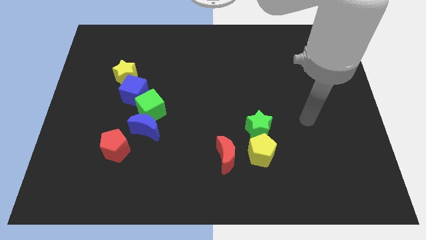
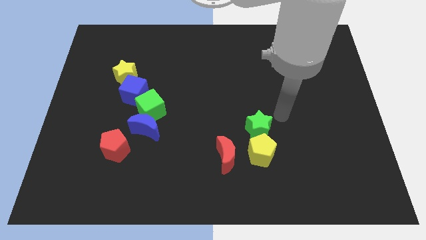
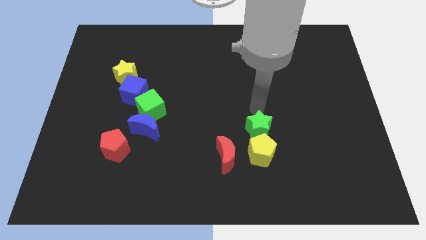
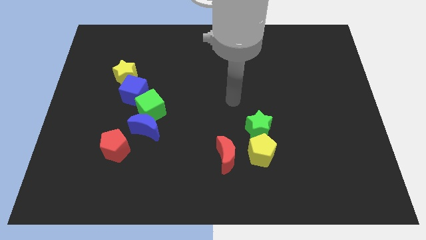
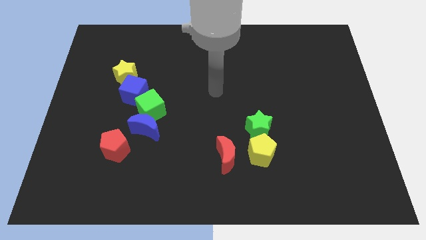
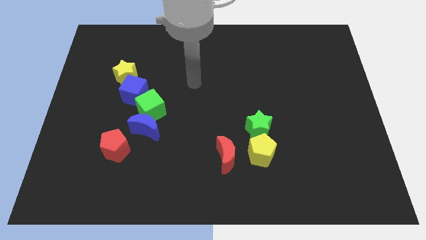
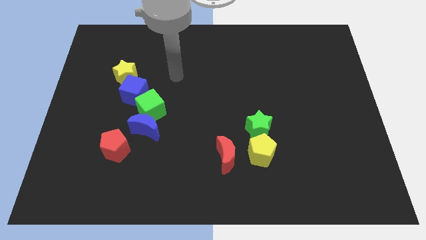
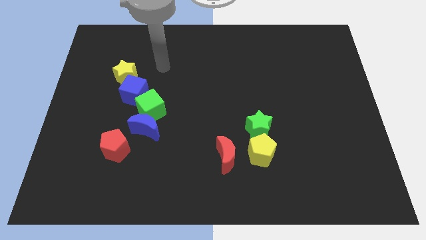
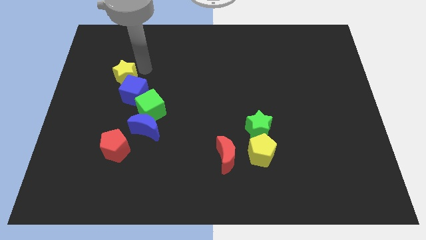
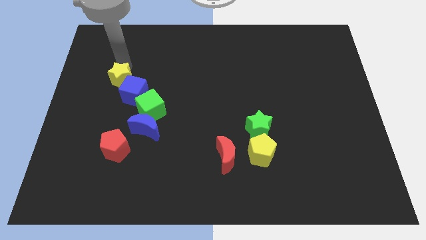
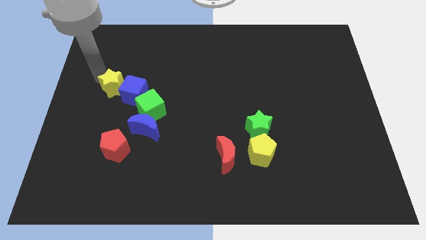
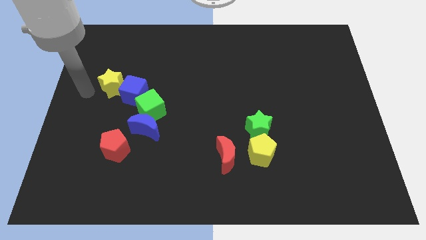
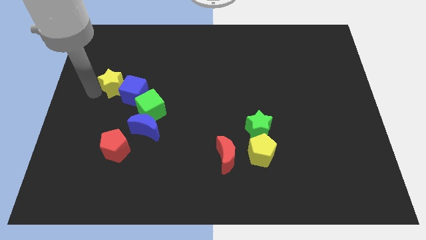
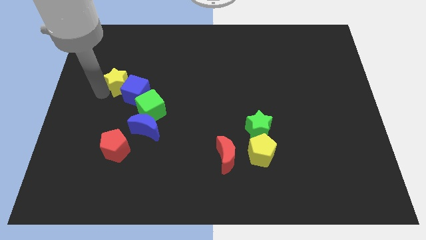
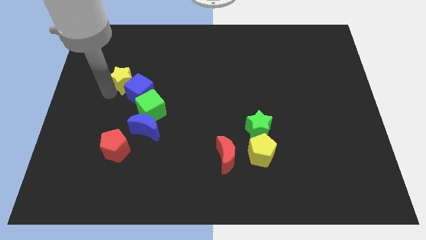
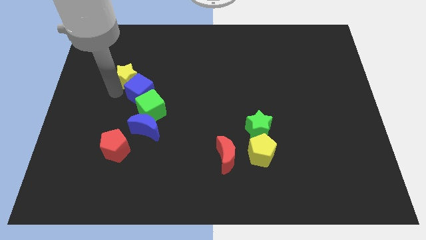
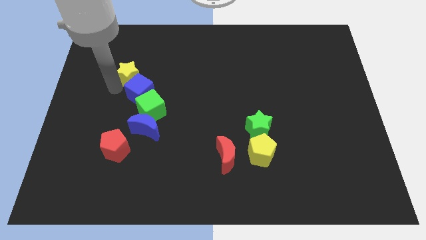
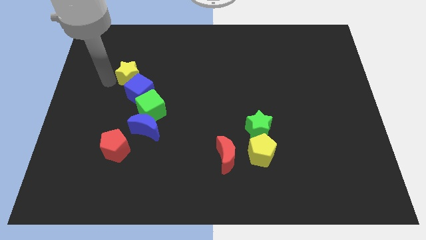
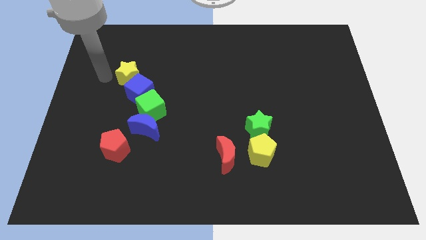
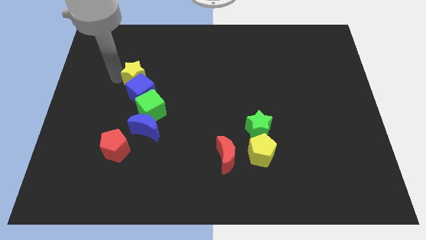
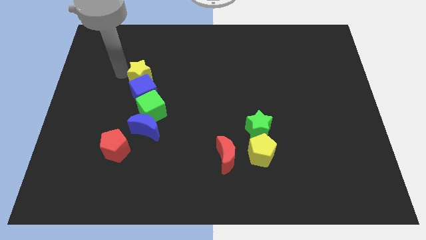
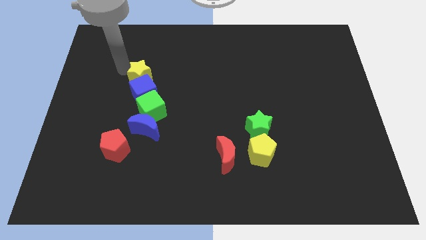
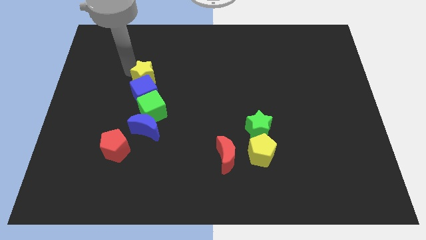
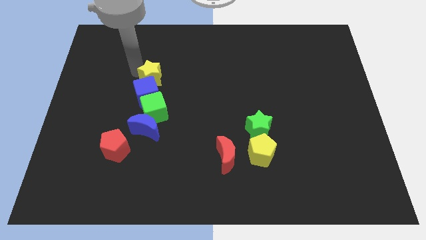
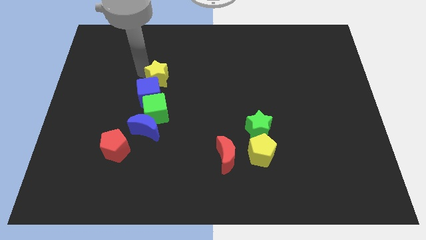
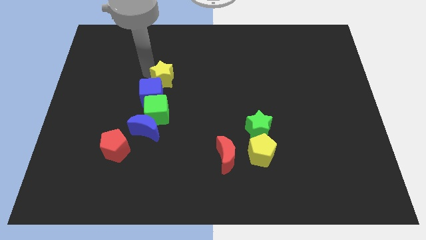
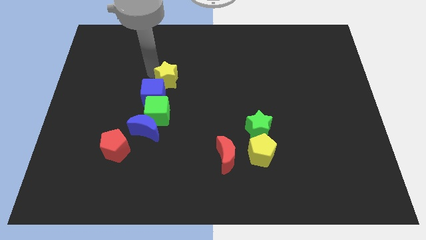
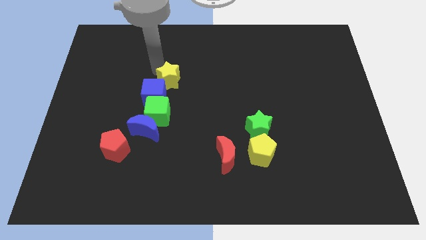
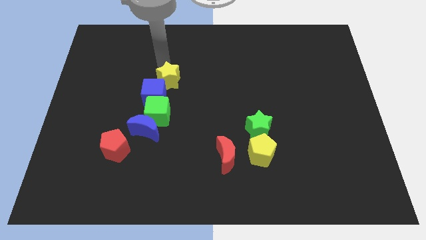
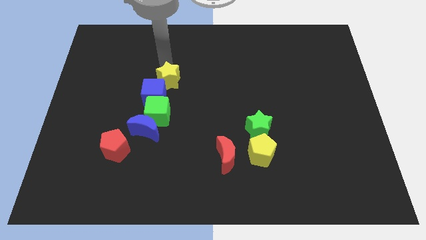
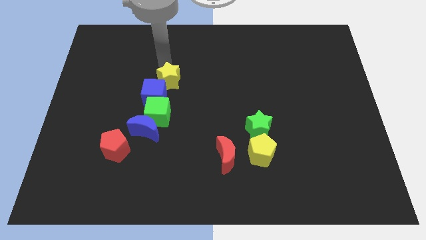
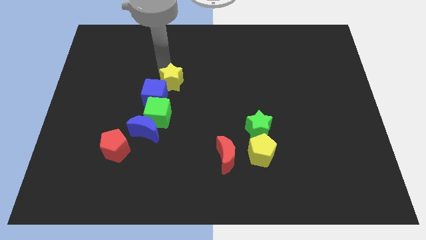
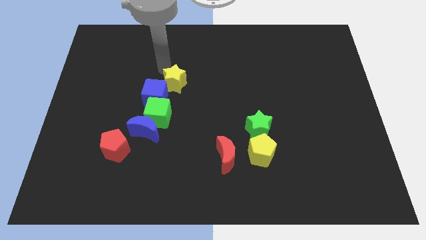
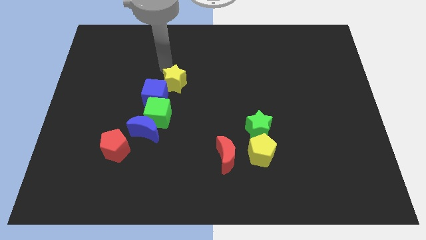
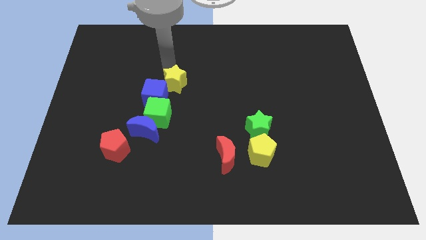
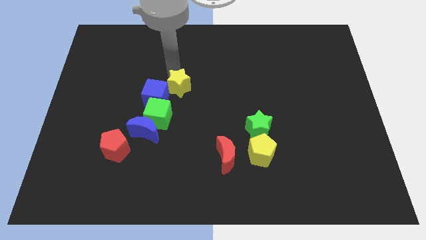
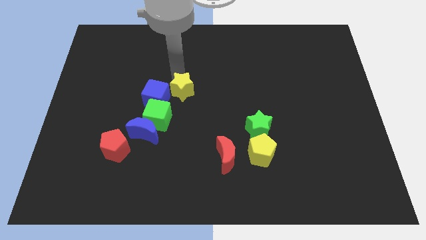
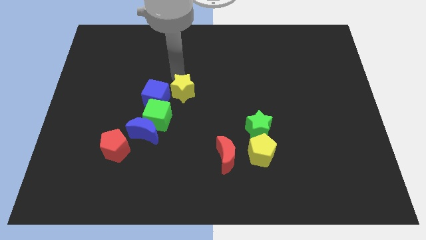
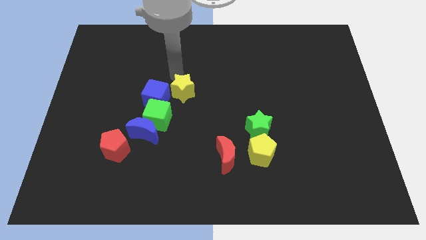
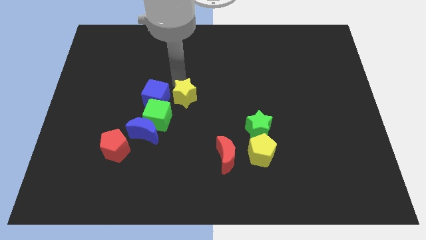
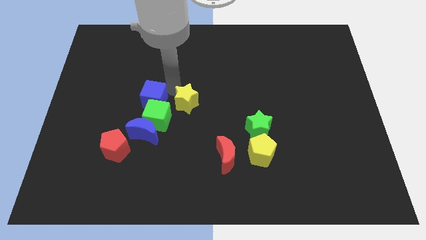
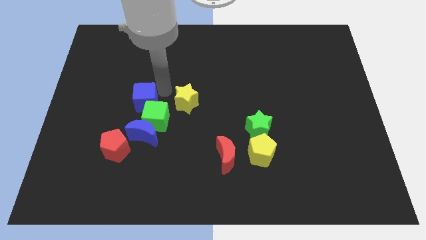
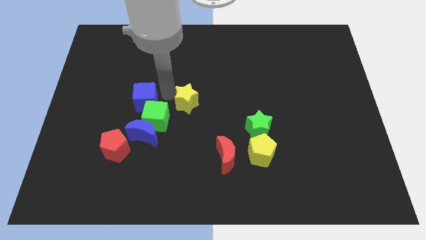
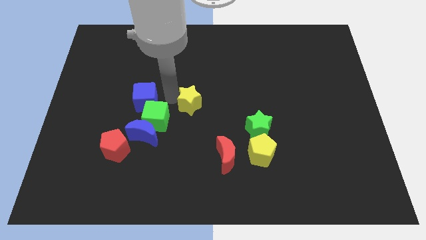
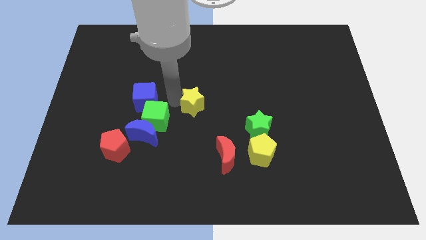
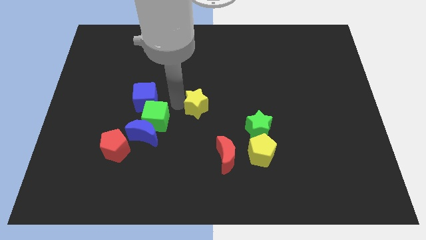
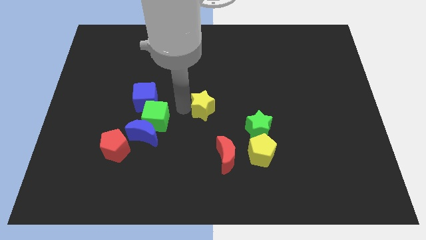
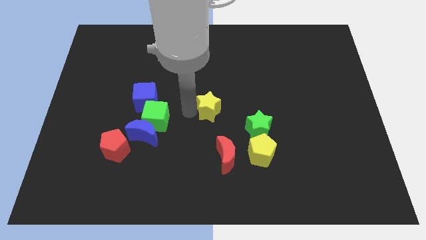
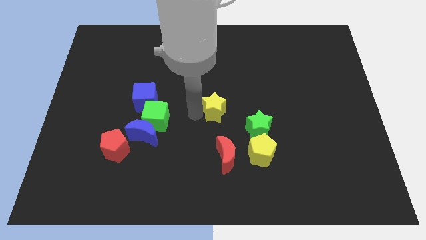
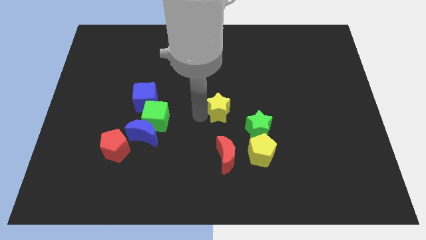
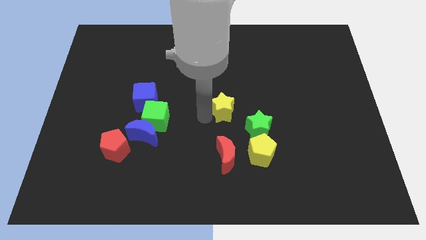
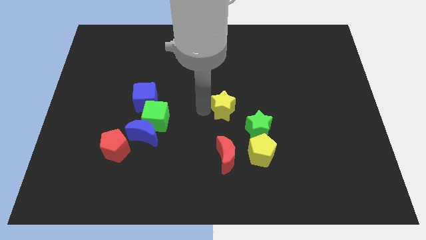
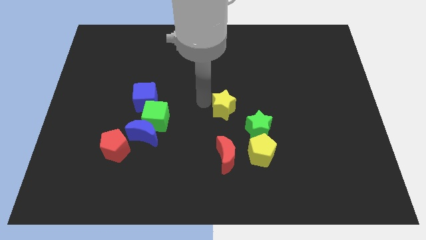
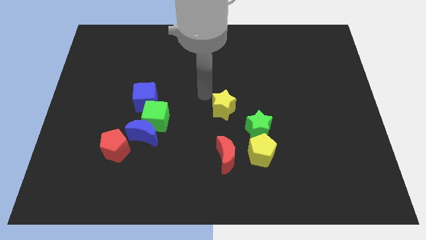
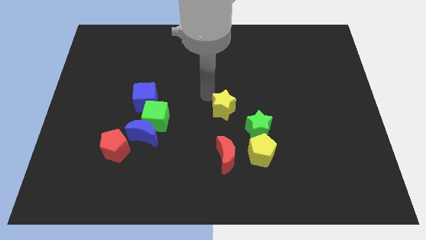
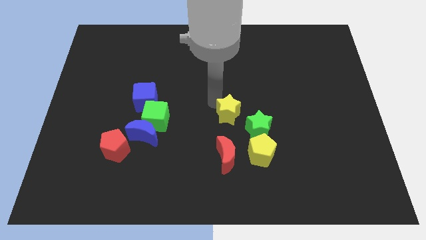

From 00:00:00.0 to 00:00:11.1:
slide the yellow star to the top left of the yellow pentagon

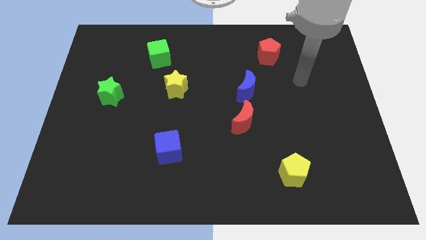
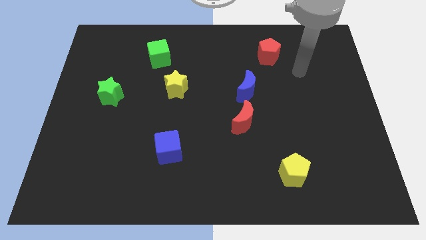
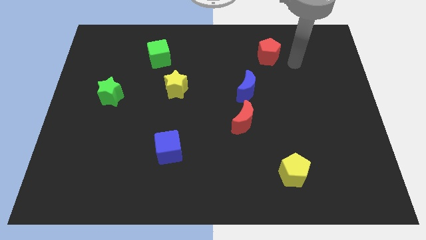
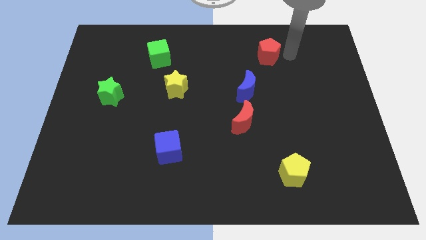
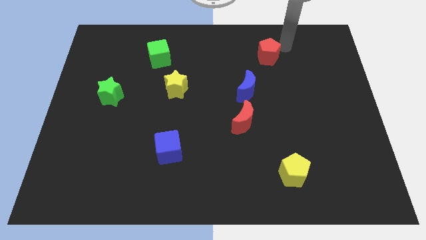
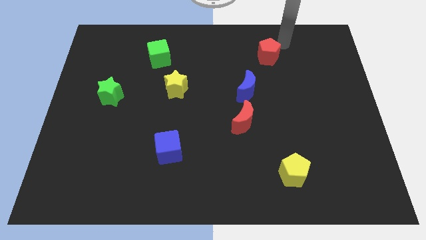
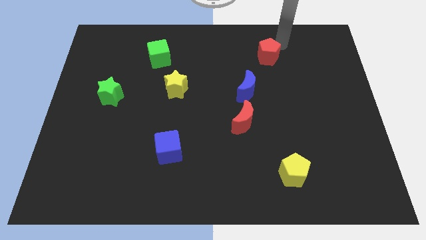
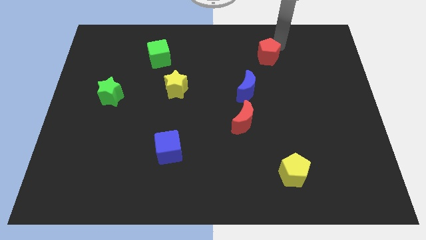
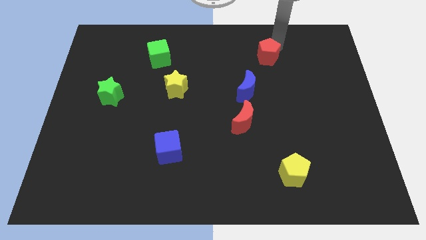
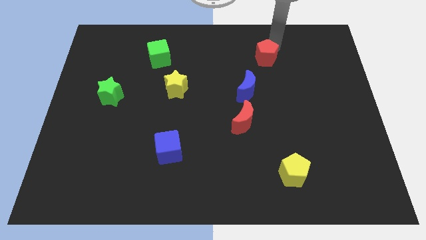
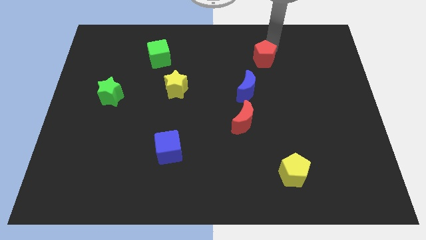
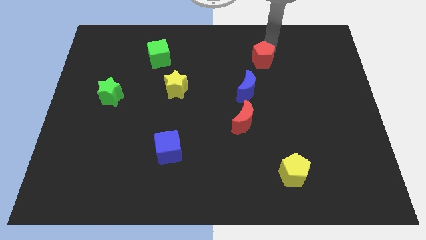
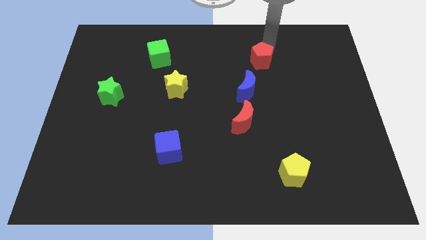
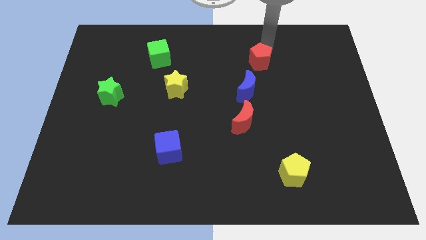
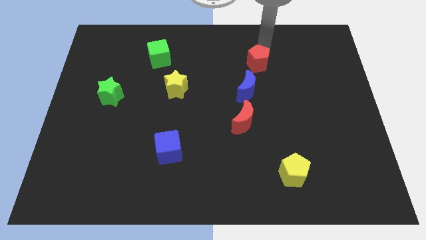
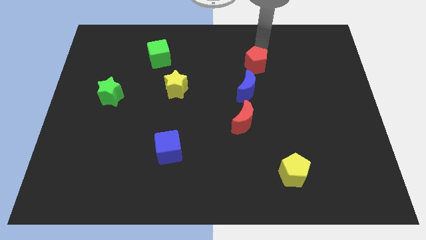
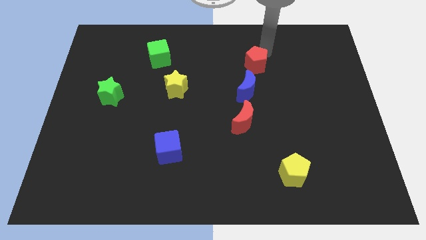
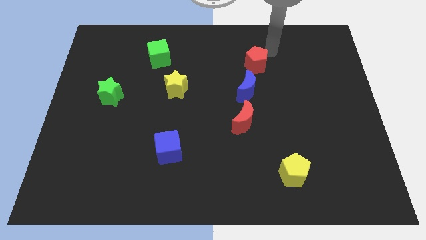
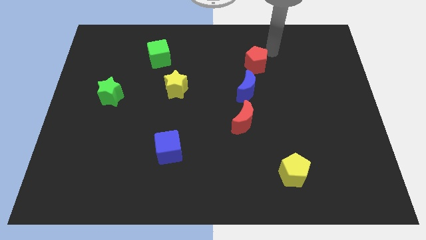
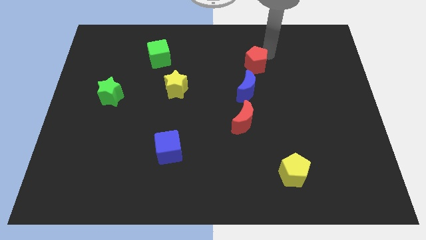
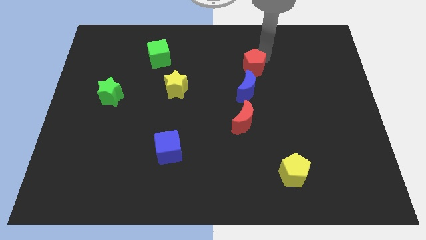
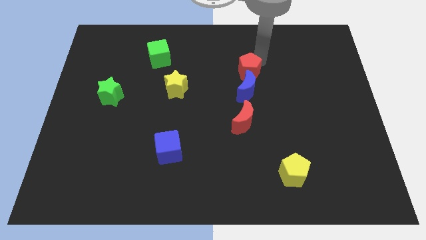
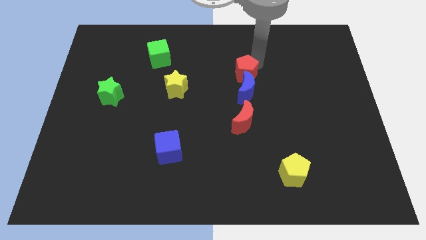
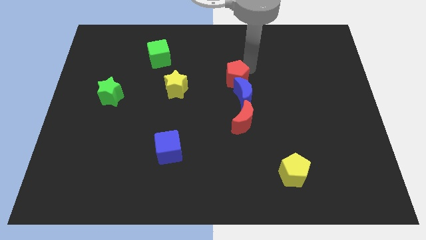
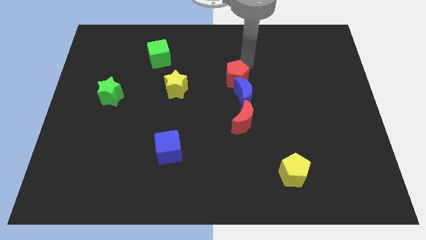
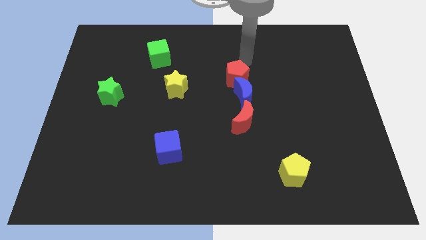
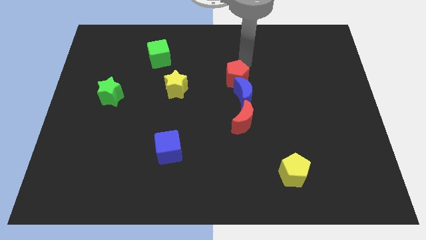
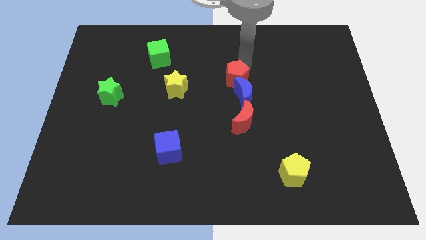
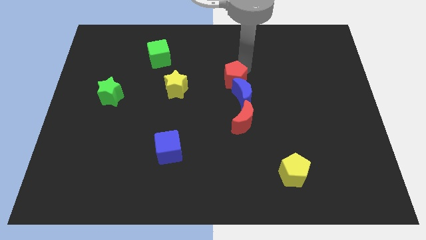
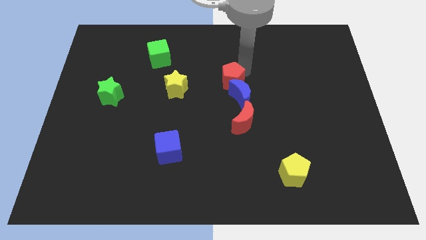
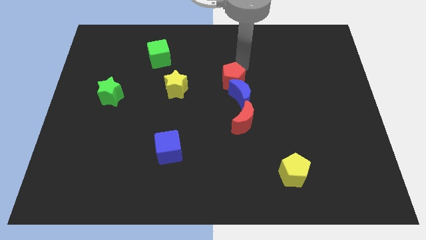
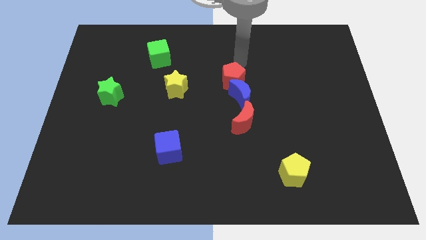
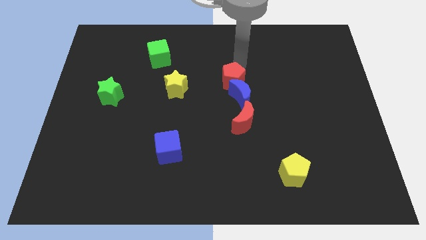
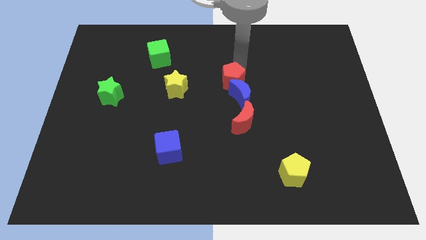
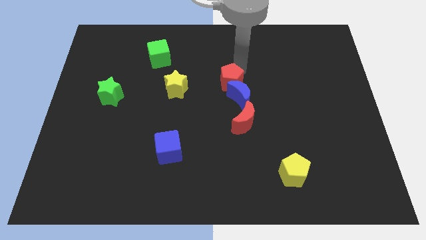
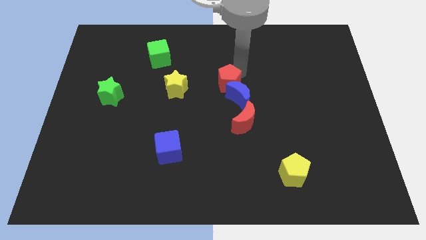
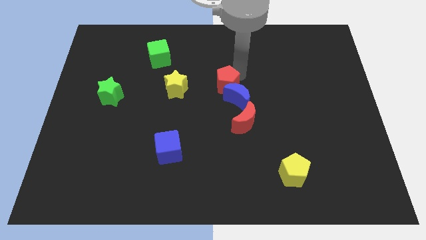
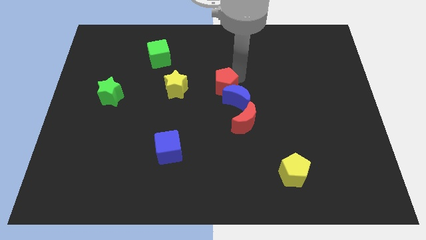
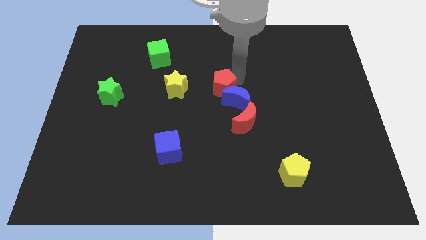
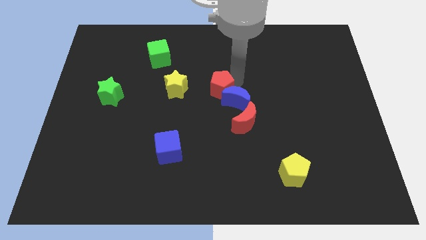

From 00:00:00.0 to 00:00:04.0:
push the red pentagon diagonally up and to the left of the red moon
